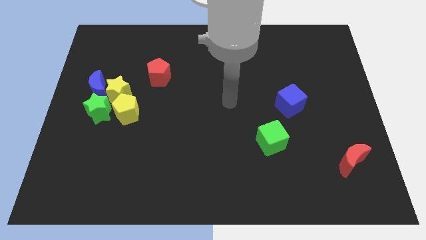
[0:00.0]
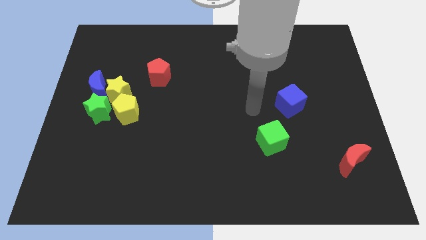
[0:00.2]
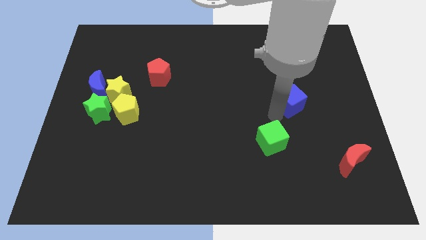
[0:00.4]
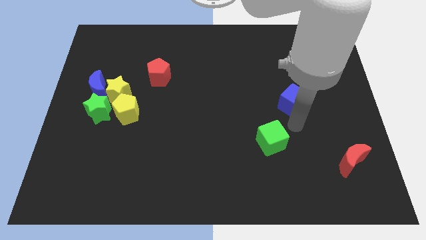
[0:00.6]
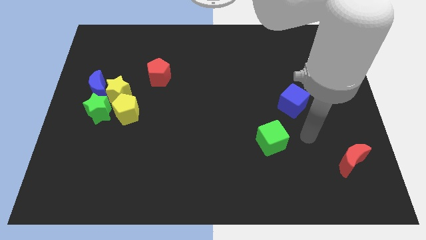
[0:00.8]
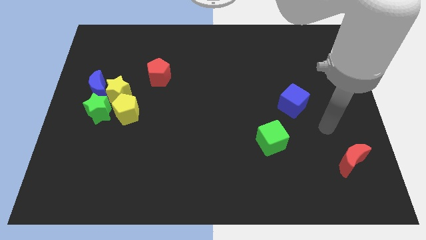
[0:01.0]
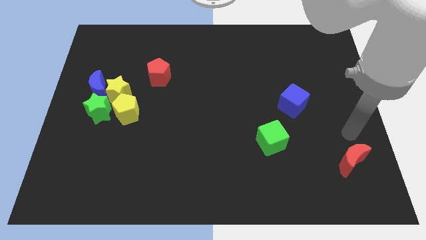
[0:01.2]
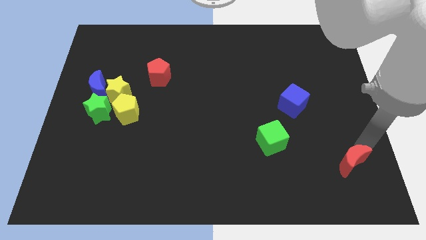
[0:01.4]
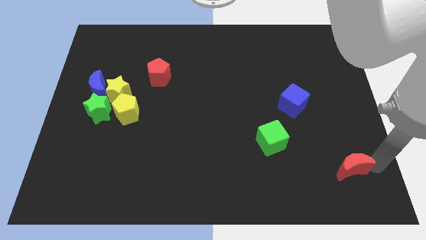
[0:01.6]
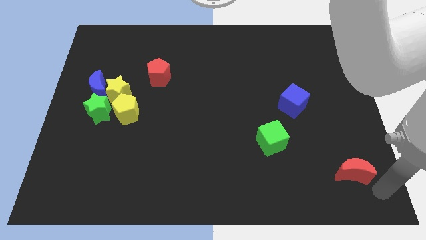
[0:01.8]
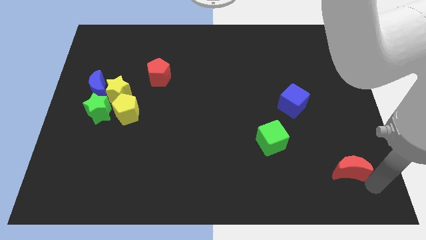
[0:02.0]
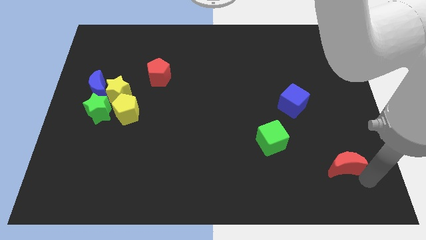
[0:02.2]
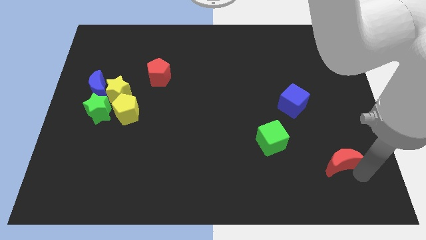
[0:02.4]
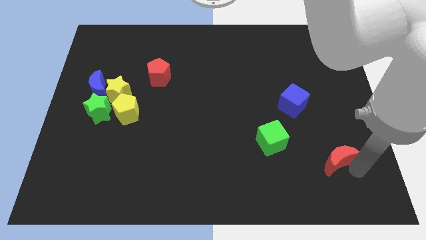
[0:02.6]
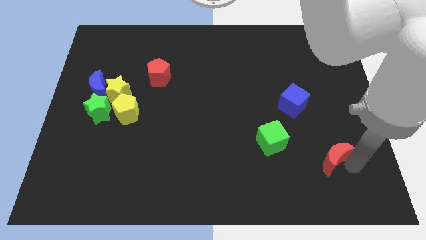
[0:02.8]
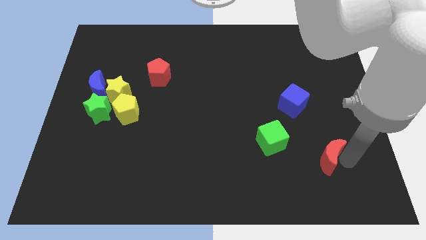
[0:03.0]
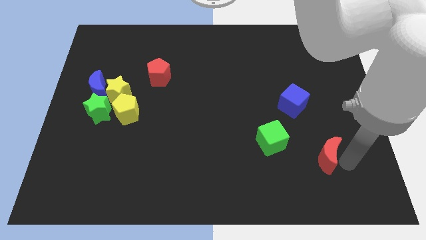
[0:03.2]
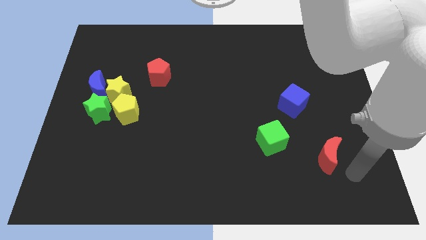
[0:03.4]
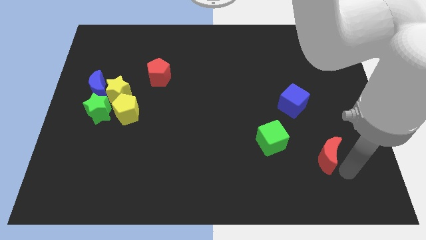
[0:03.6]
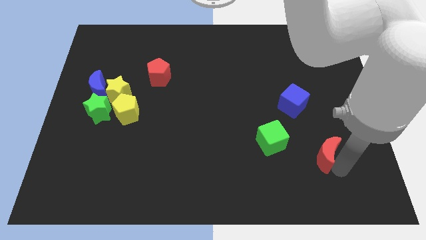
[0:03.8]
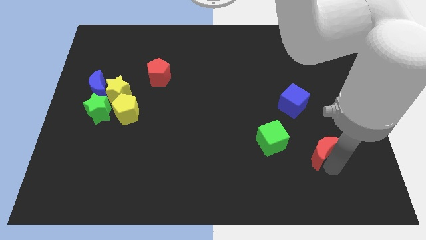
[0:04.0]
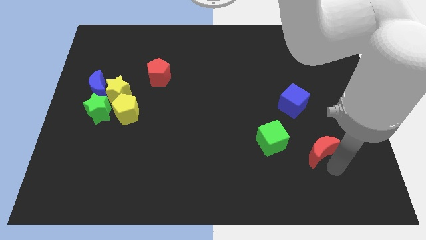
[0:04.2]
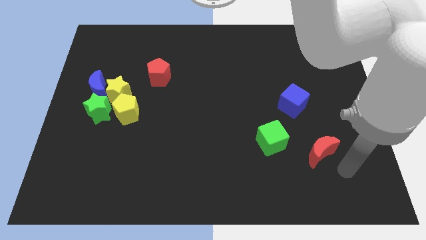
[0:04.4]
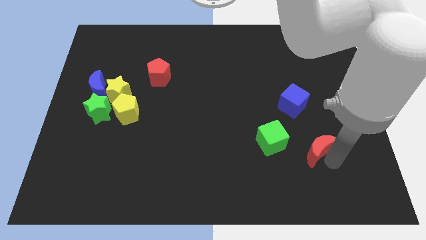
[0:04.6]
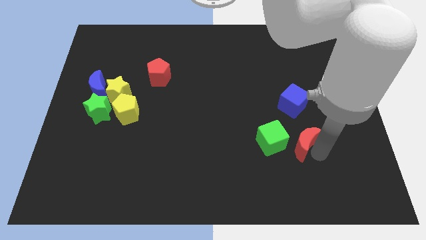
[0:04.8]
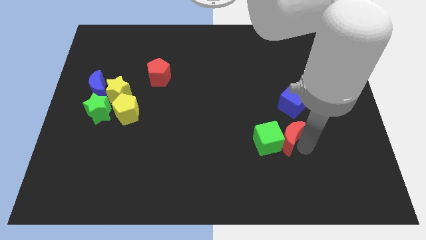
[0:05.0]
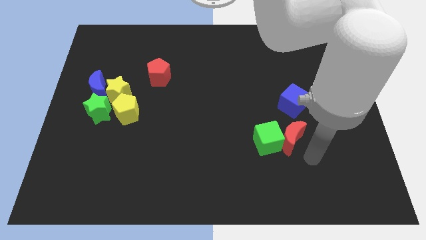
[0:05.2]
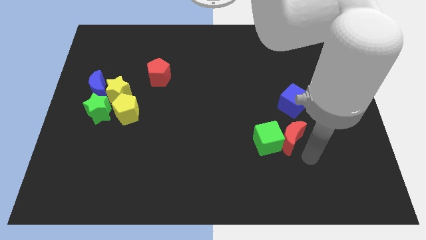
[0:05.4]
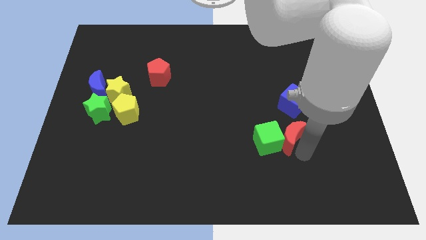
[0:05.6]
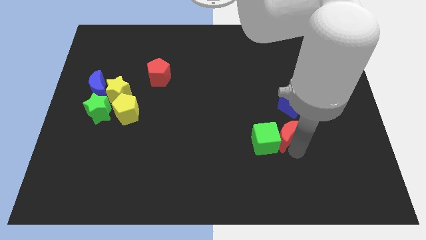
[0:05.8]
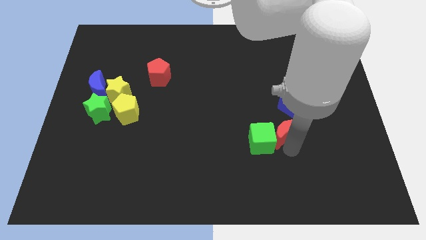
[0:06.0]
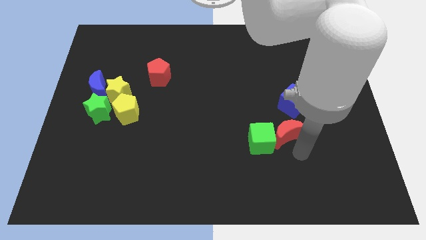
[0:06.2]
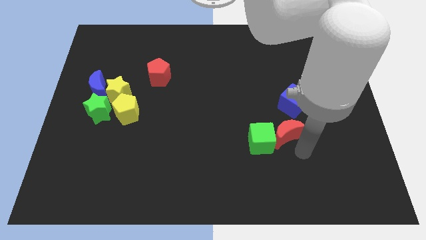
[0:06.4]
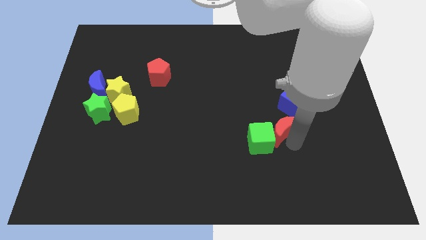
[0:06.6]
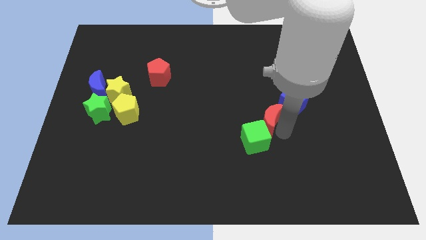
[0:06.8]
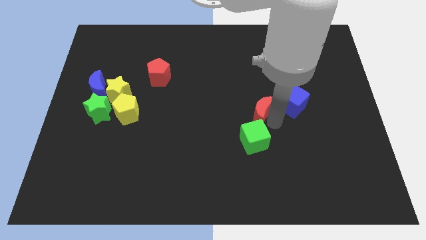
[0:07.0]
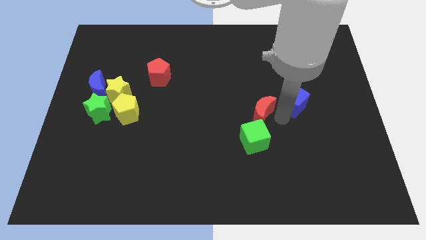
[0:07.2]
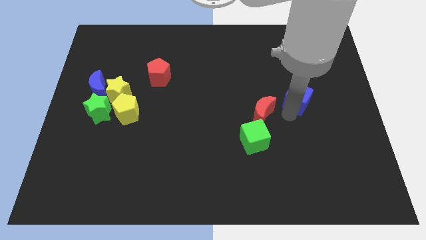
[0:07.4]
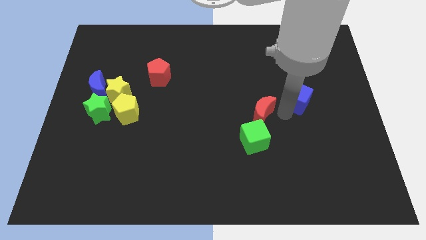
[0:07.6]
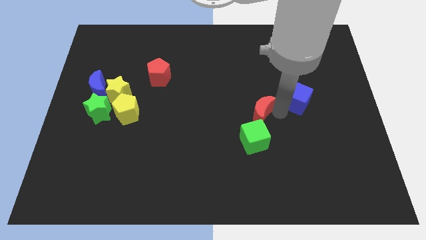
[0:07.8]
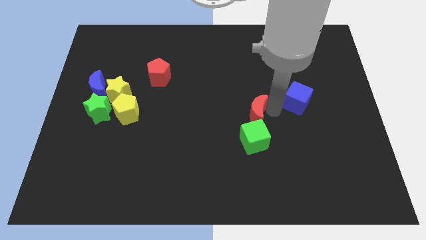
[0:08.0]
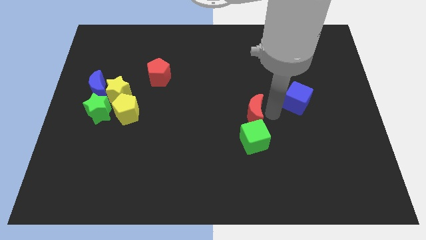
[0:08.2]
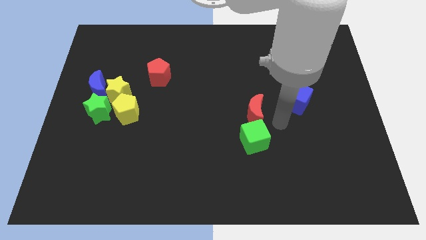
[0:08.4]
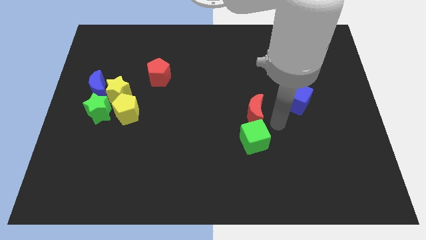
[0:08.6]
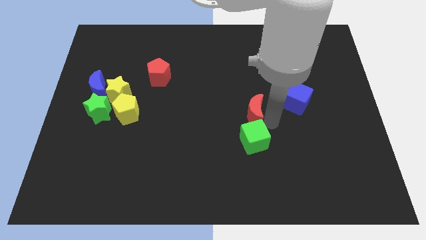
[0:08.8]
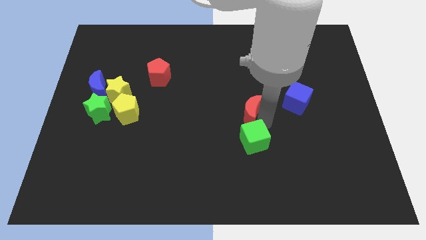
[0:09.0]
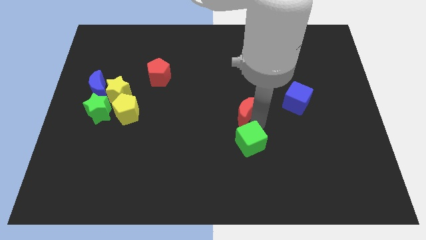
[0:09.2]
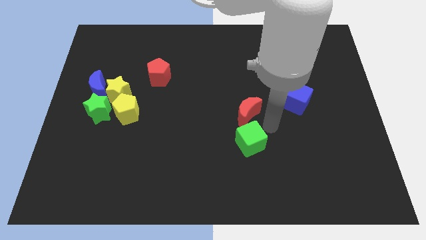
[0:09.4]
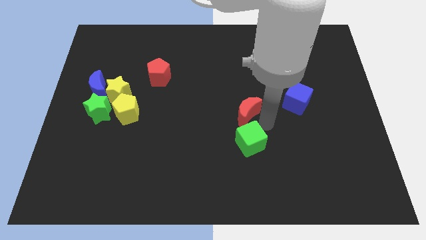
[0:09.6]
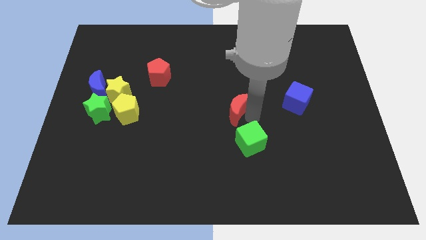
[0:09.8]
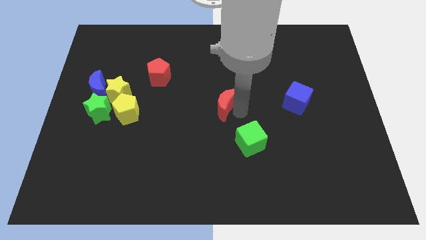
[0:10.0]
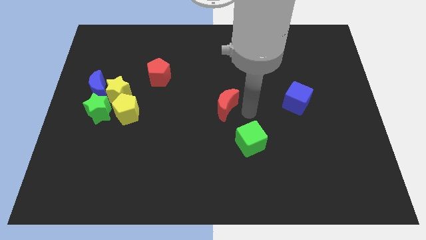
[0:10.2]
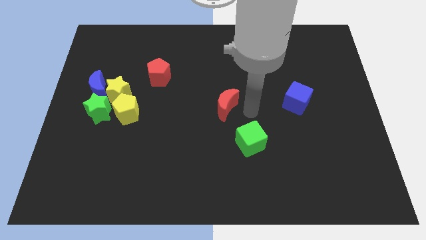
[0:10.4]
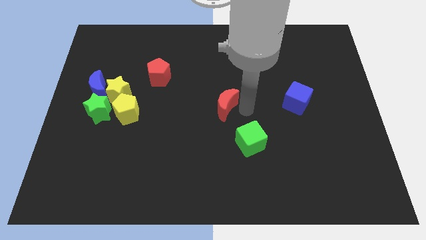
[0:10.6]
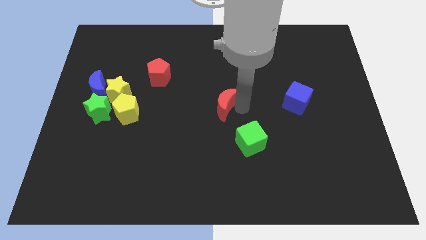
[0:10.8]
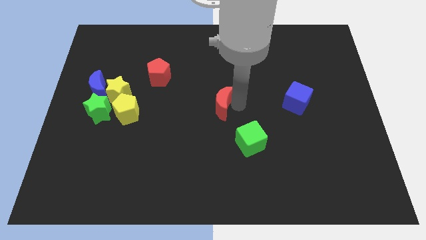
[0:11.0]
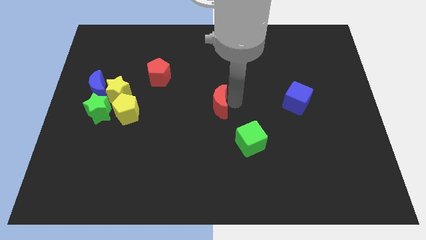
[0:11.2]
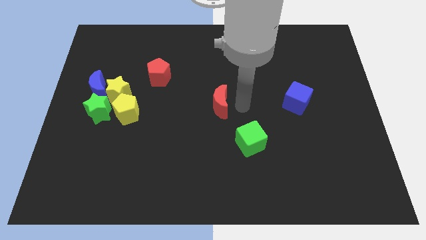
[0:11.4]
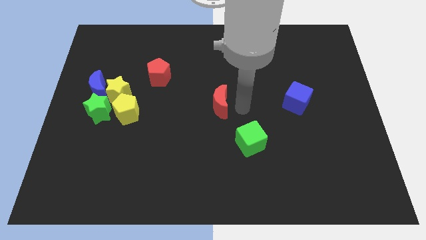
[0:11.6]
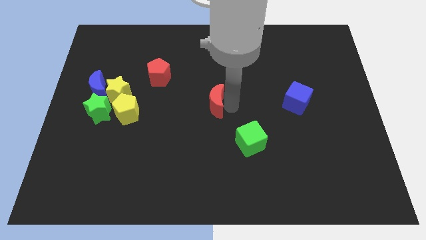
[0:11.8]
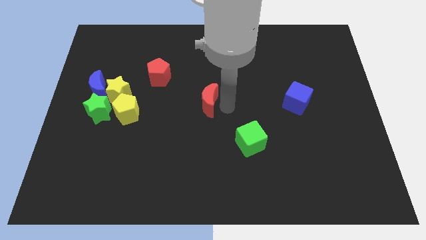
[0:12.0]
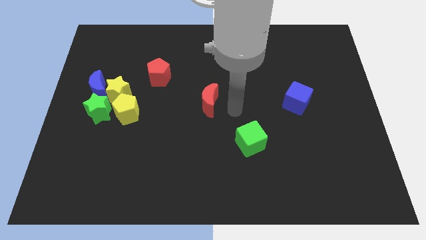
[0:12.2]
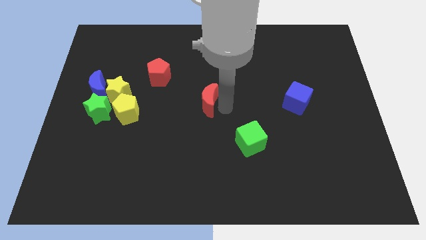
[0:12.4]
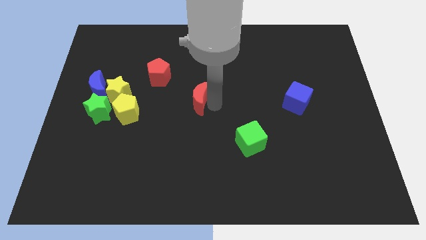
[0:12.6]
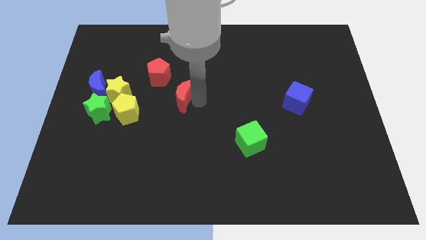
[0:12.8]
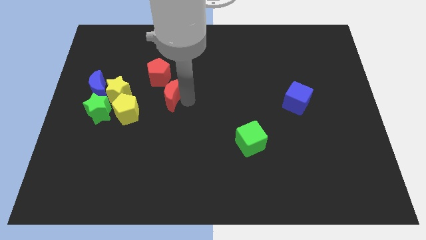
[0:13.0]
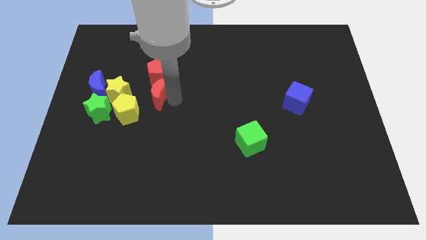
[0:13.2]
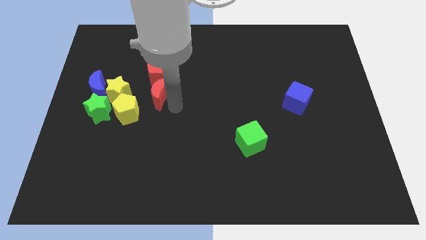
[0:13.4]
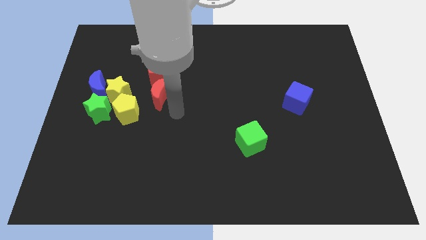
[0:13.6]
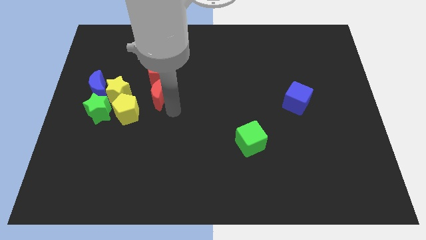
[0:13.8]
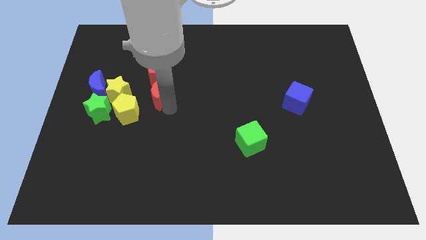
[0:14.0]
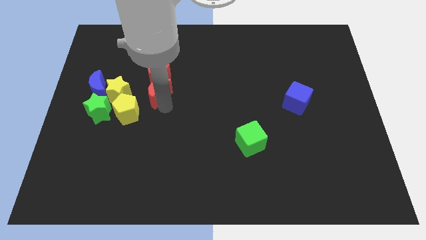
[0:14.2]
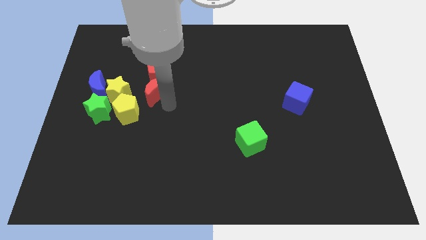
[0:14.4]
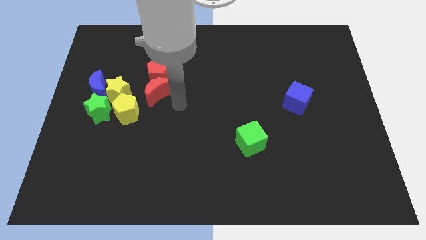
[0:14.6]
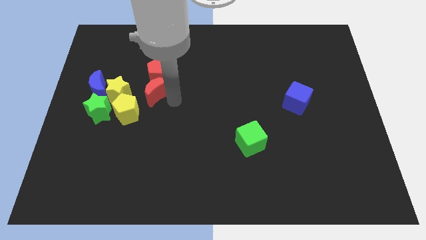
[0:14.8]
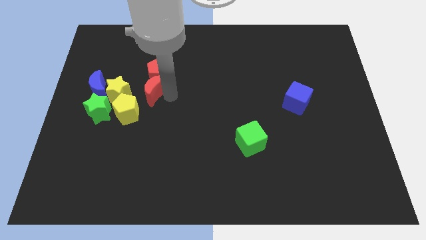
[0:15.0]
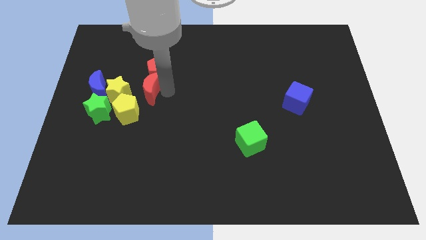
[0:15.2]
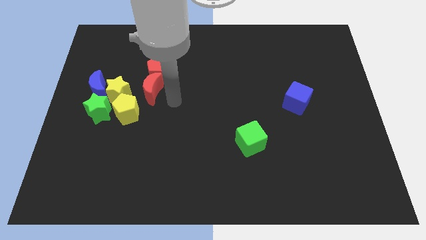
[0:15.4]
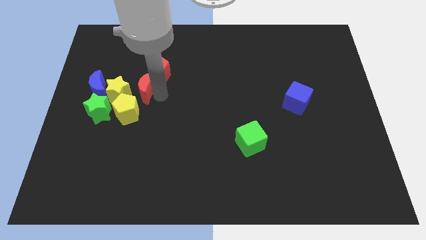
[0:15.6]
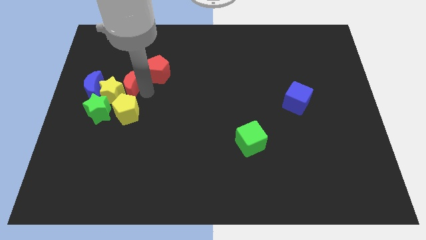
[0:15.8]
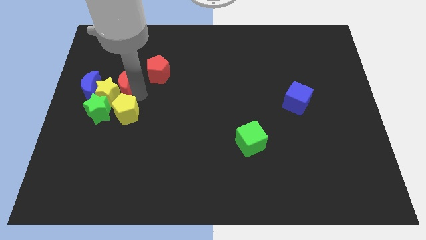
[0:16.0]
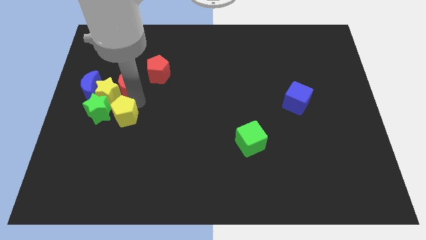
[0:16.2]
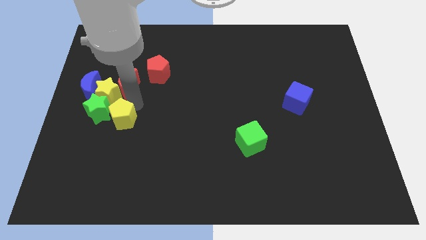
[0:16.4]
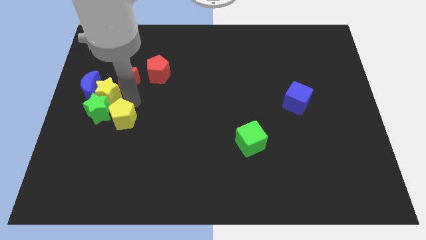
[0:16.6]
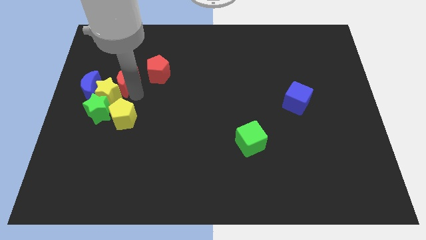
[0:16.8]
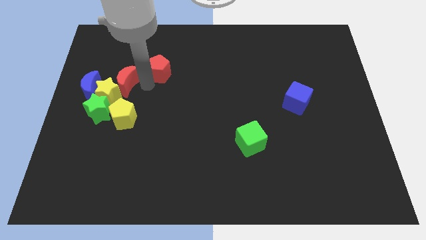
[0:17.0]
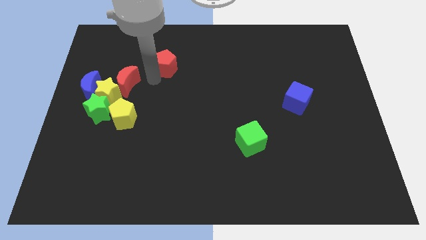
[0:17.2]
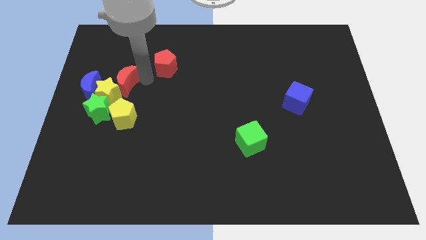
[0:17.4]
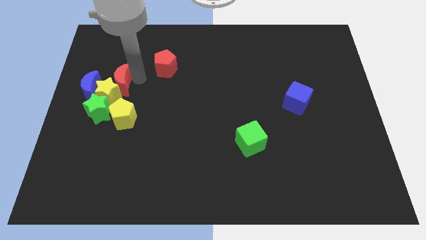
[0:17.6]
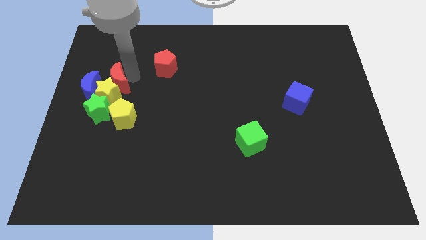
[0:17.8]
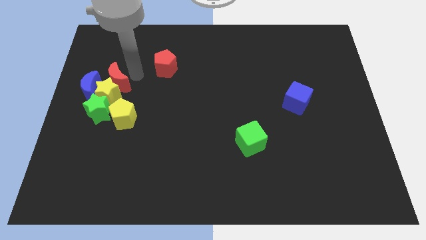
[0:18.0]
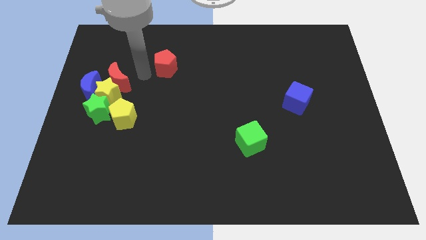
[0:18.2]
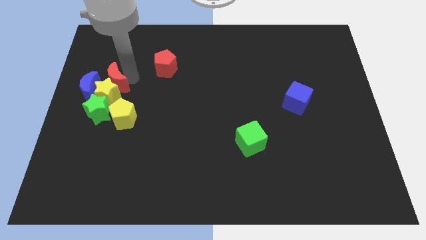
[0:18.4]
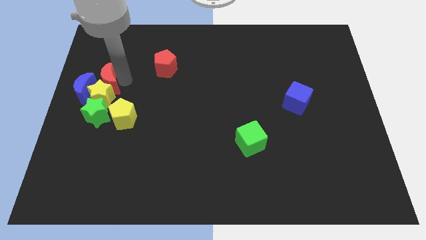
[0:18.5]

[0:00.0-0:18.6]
slide the red moon to the blue moon
